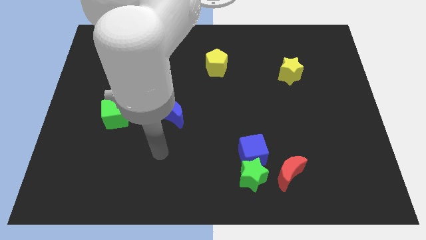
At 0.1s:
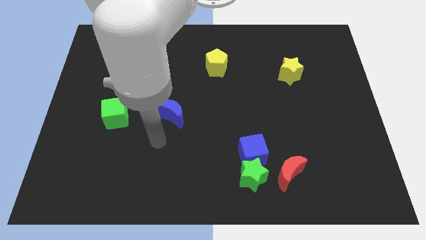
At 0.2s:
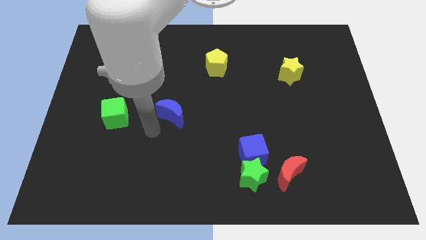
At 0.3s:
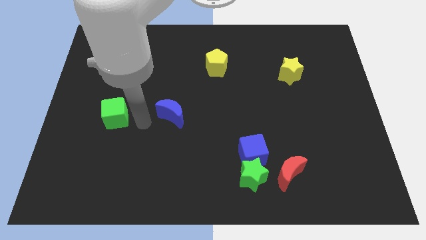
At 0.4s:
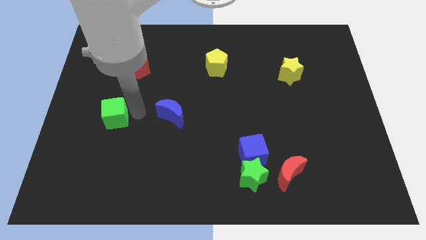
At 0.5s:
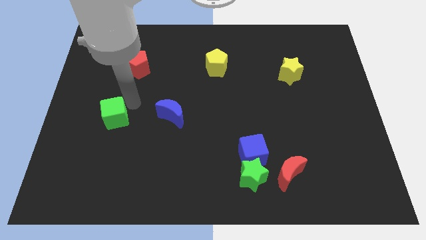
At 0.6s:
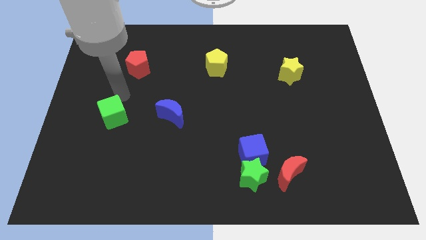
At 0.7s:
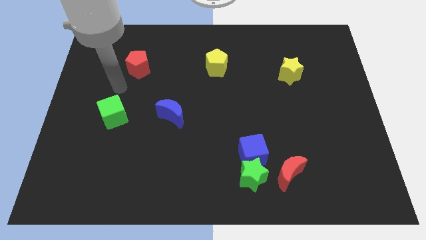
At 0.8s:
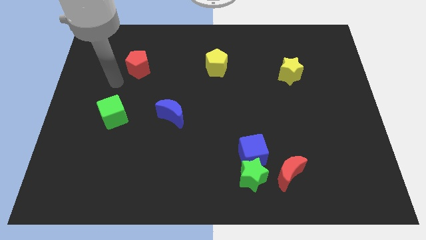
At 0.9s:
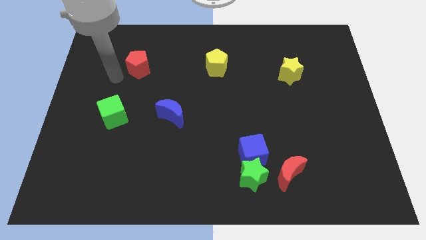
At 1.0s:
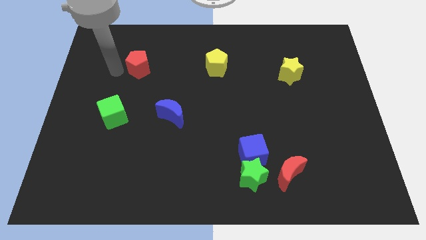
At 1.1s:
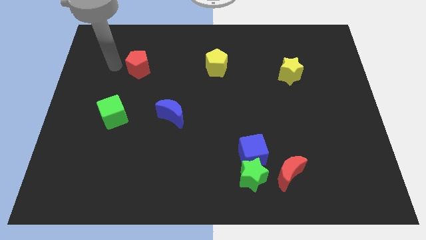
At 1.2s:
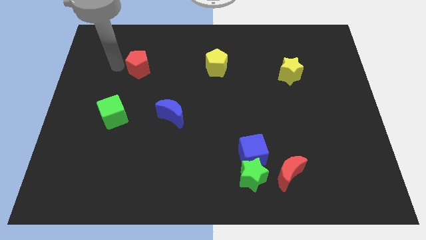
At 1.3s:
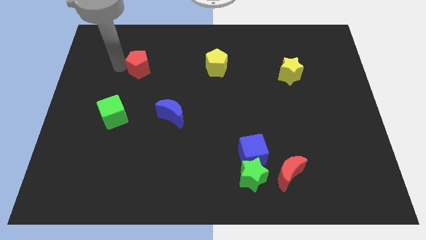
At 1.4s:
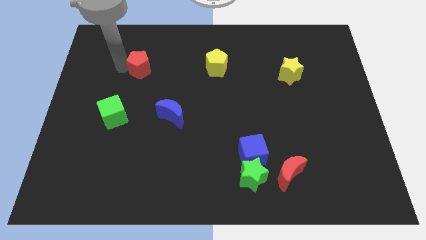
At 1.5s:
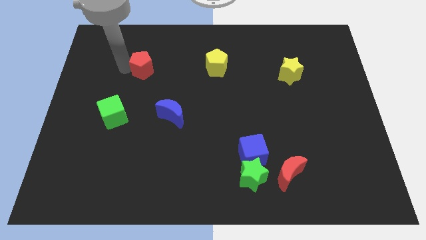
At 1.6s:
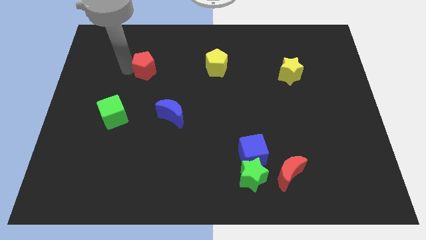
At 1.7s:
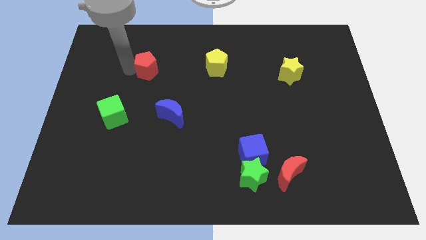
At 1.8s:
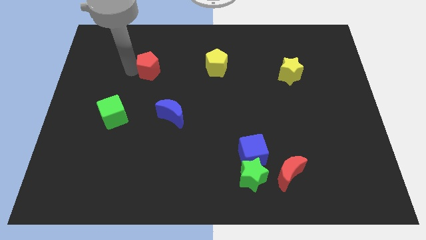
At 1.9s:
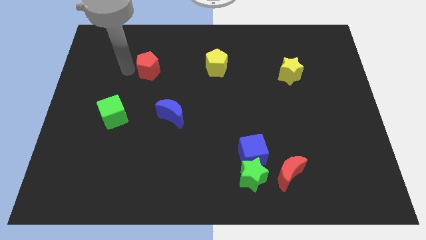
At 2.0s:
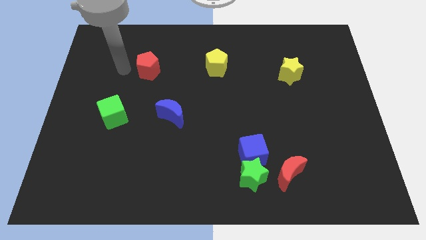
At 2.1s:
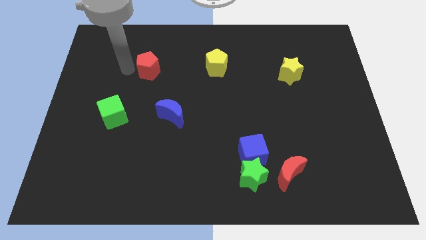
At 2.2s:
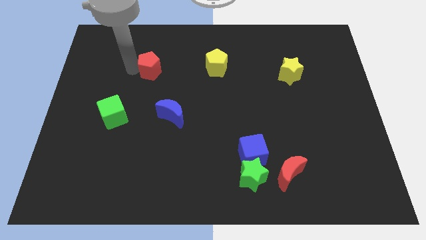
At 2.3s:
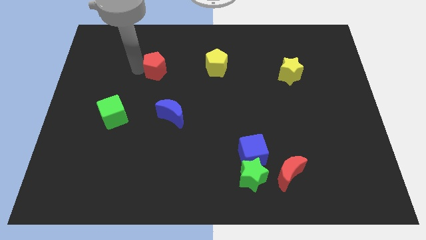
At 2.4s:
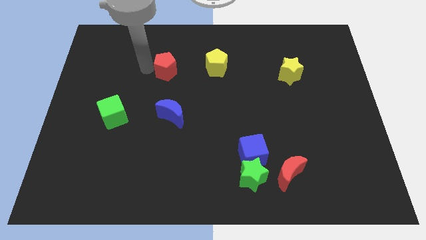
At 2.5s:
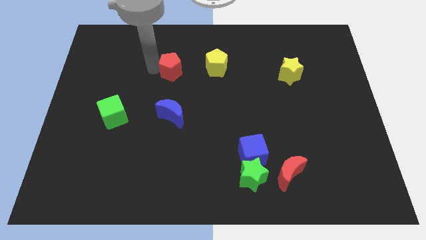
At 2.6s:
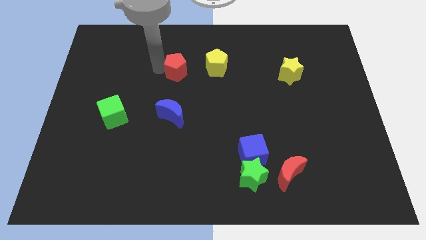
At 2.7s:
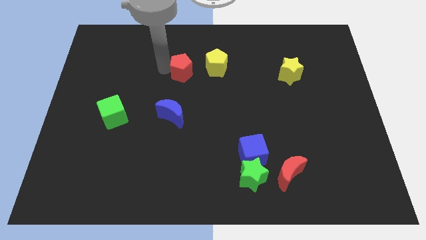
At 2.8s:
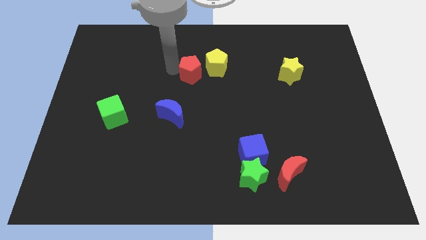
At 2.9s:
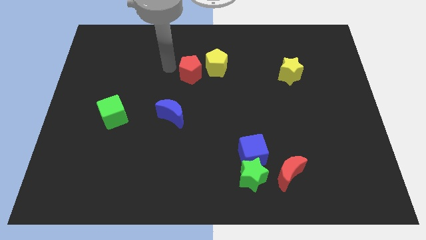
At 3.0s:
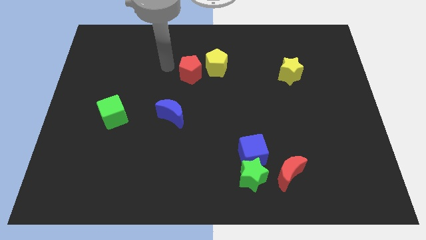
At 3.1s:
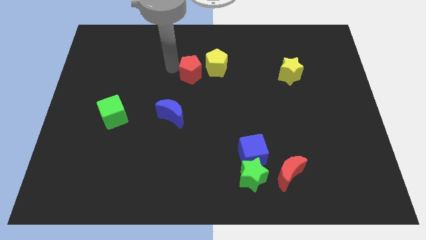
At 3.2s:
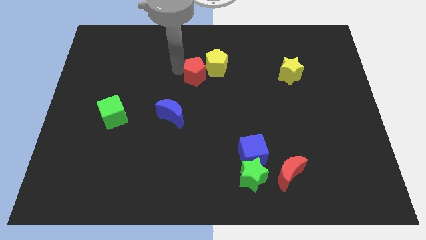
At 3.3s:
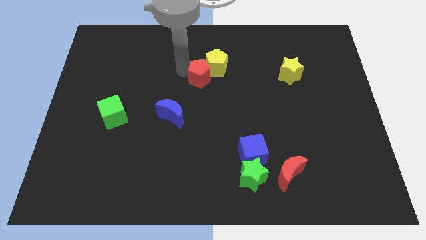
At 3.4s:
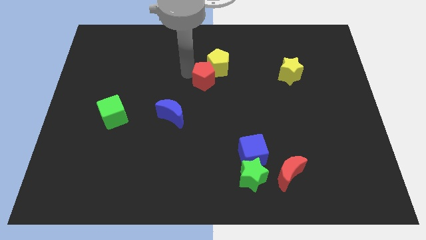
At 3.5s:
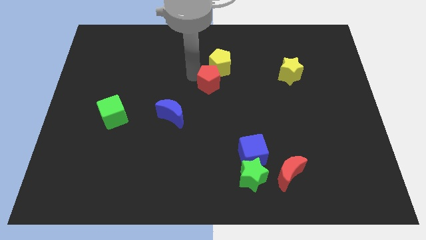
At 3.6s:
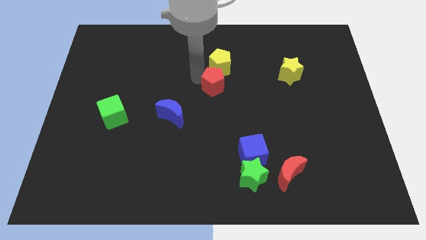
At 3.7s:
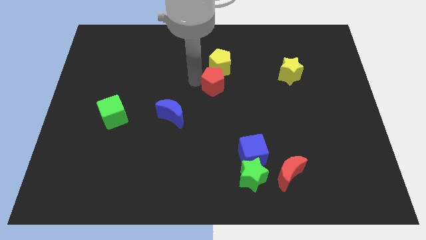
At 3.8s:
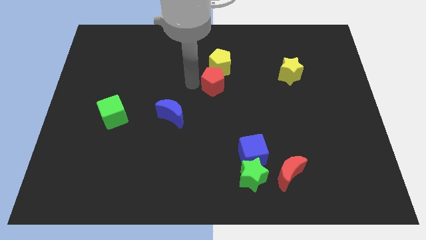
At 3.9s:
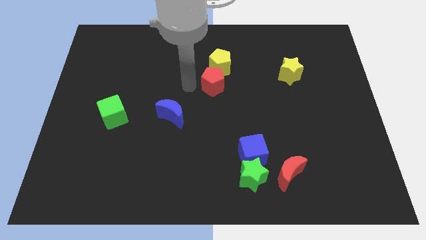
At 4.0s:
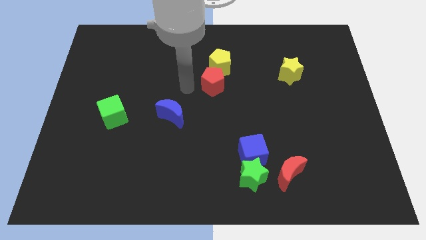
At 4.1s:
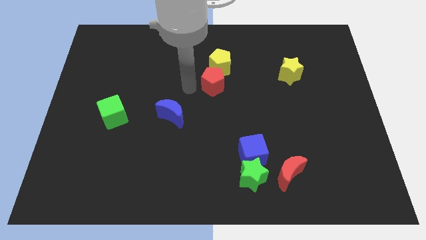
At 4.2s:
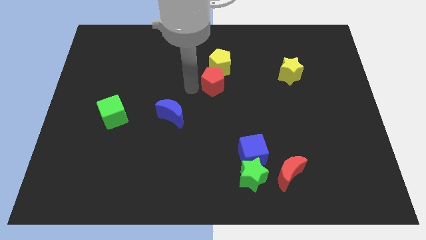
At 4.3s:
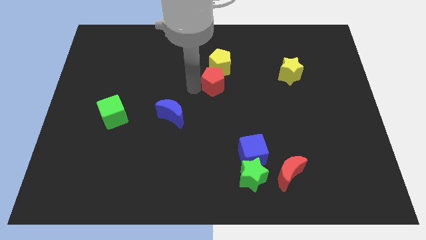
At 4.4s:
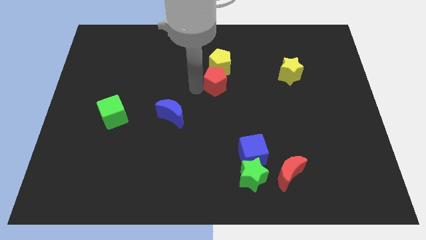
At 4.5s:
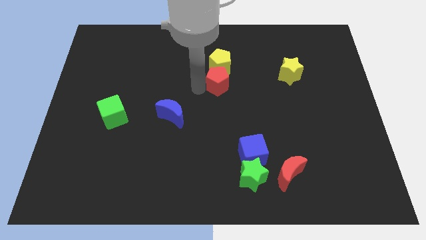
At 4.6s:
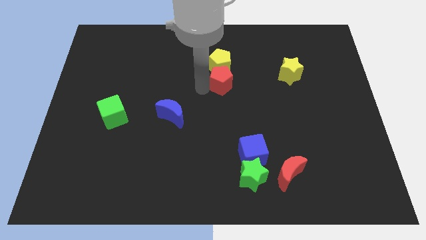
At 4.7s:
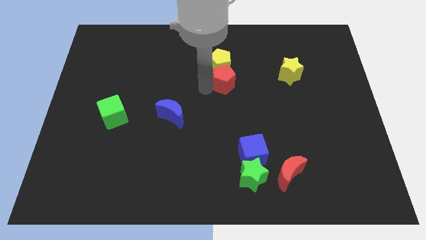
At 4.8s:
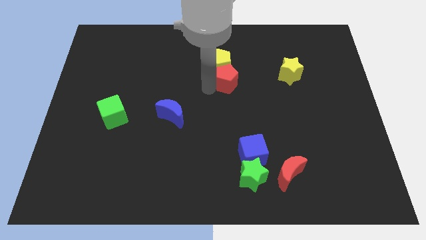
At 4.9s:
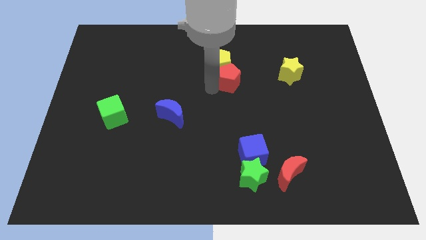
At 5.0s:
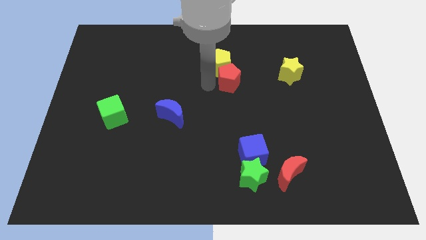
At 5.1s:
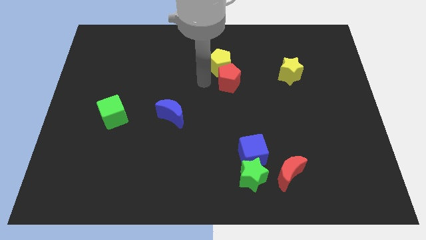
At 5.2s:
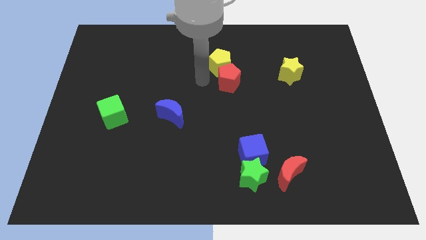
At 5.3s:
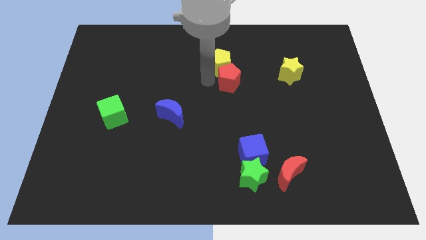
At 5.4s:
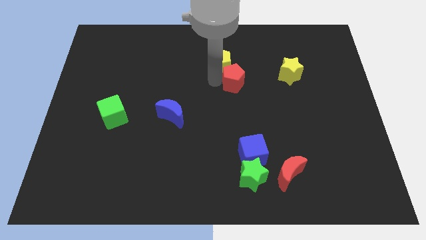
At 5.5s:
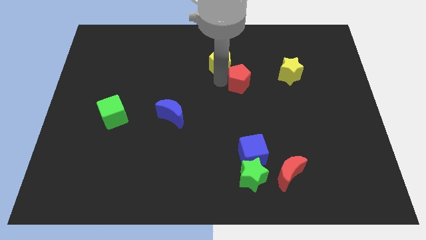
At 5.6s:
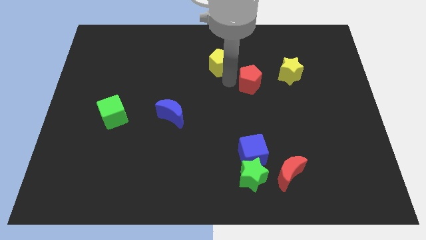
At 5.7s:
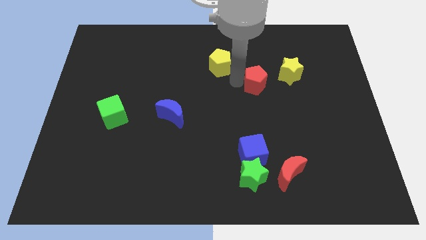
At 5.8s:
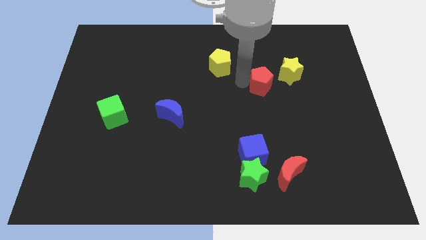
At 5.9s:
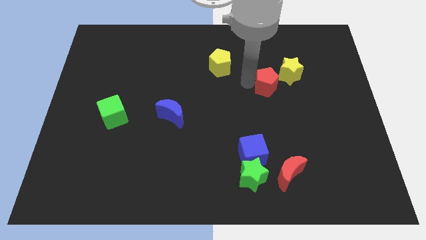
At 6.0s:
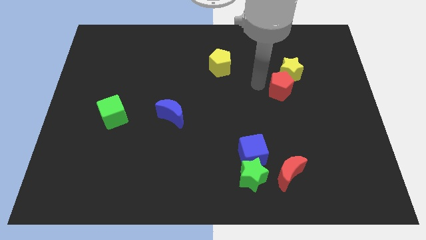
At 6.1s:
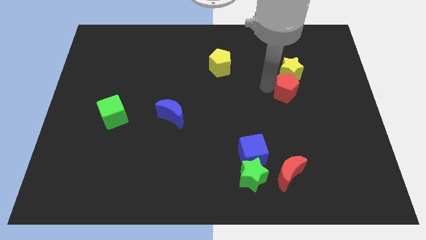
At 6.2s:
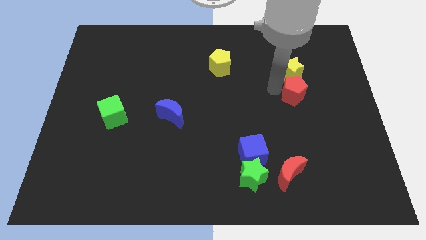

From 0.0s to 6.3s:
put the red pentagon to the bottom right side of the yellow star

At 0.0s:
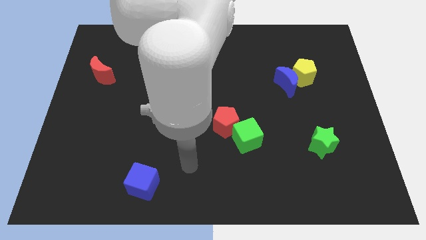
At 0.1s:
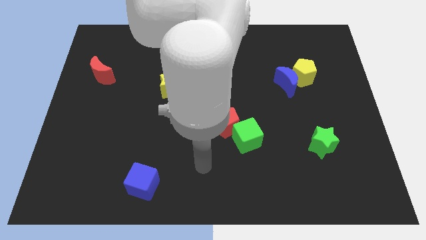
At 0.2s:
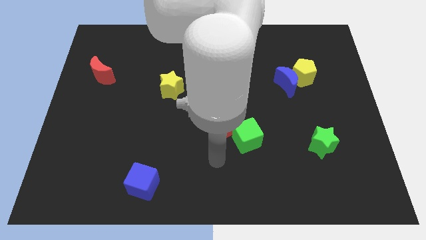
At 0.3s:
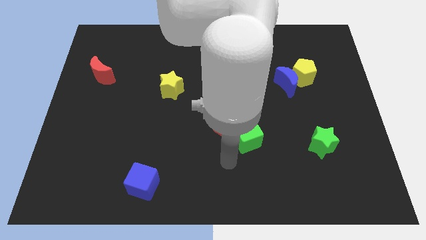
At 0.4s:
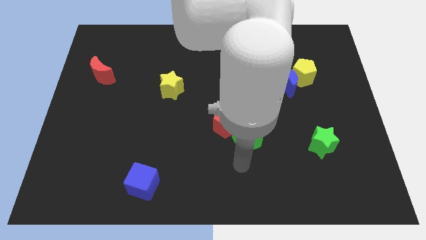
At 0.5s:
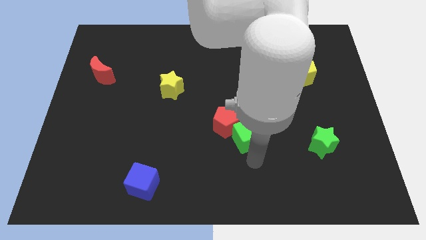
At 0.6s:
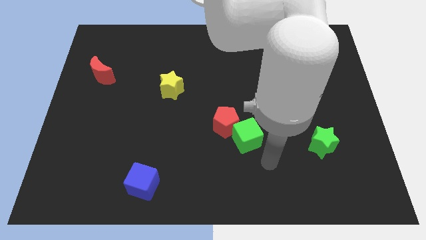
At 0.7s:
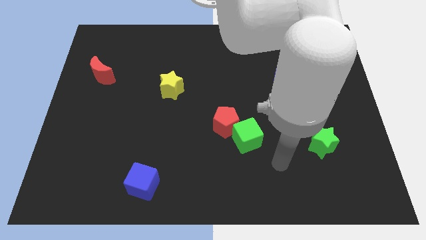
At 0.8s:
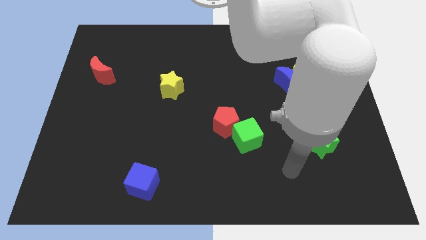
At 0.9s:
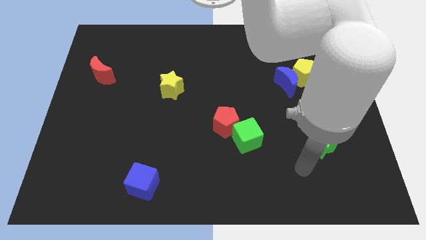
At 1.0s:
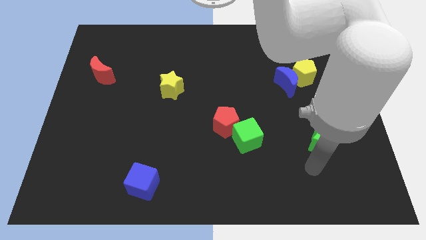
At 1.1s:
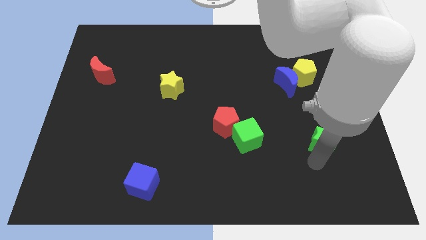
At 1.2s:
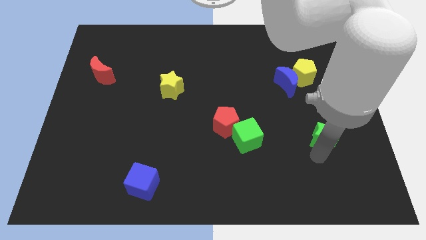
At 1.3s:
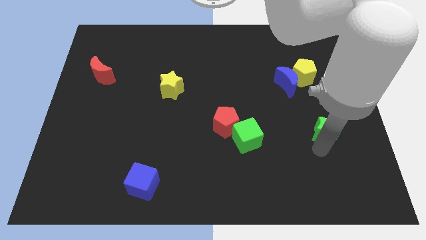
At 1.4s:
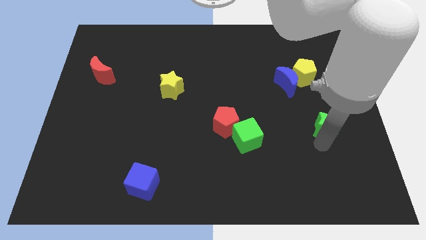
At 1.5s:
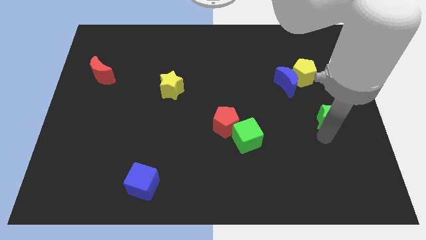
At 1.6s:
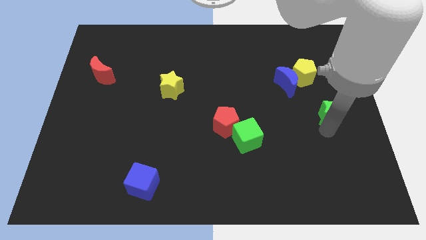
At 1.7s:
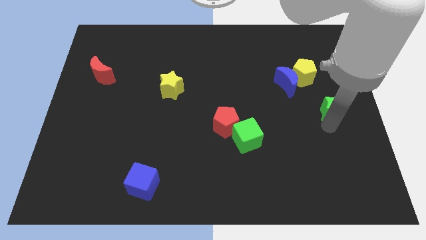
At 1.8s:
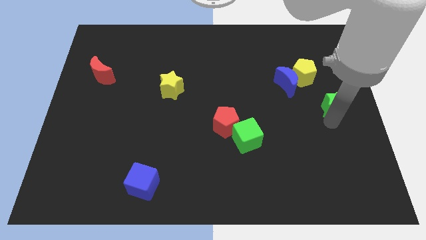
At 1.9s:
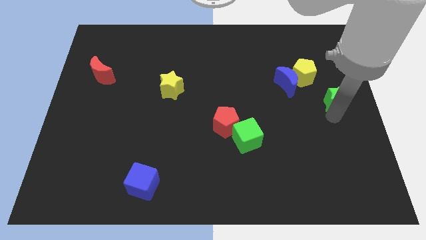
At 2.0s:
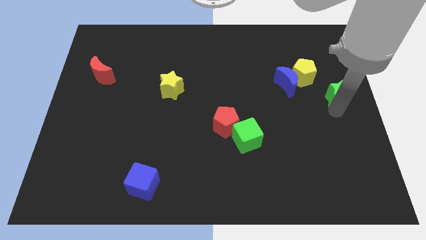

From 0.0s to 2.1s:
move the green star right of the blue moon
